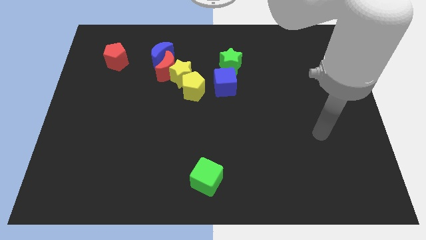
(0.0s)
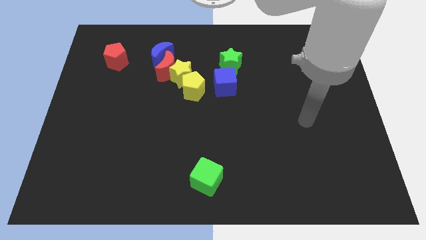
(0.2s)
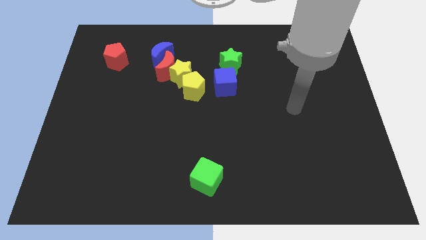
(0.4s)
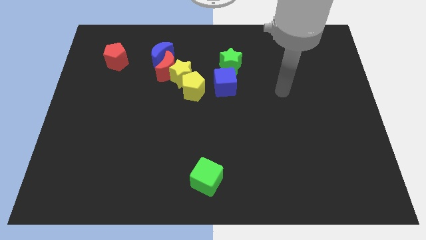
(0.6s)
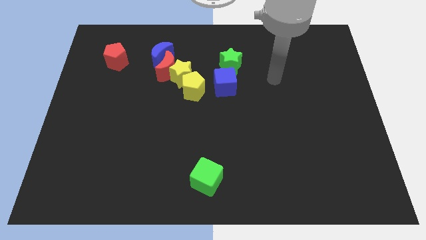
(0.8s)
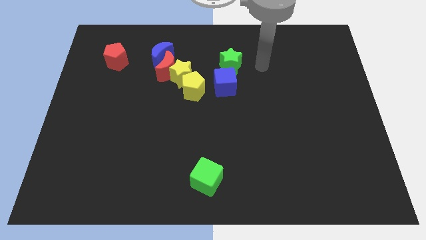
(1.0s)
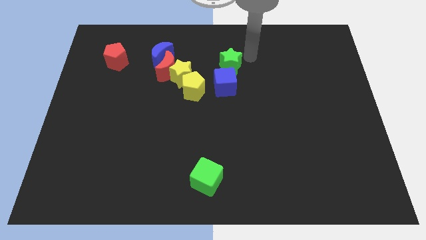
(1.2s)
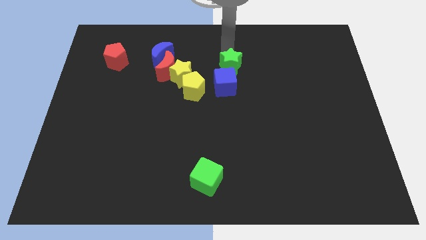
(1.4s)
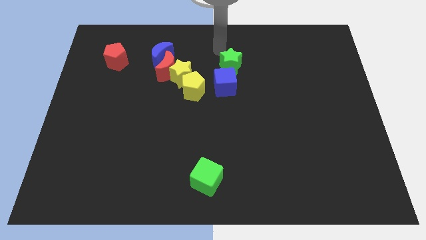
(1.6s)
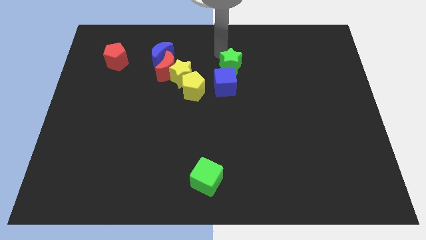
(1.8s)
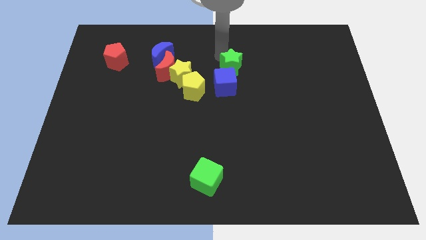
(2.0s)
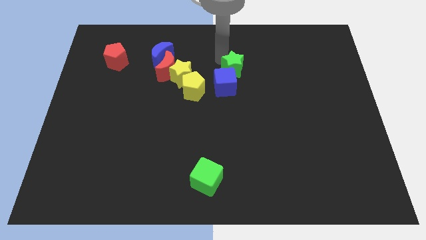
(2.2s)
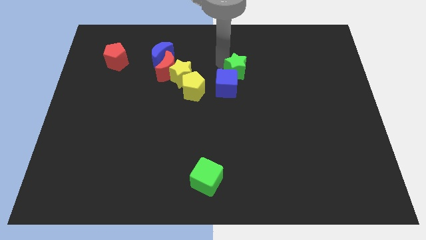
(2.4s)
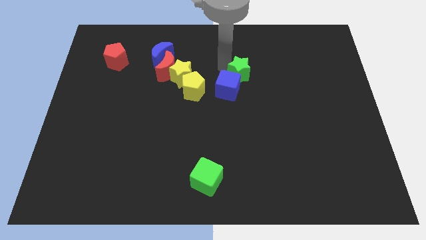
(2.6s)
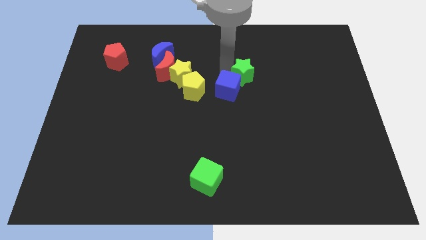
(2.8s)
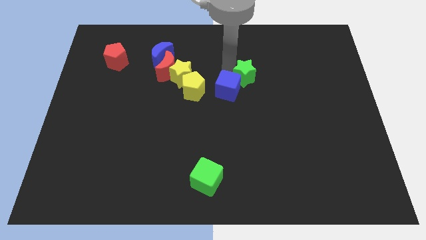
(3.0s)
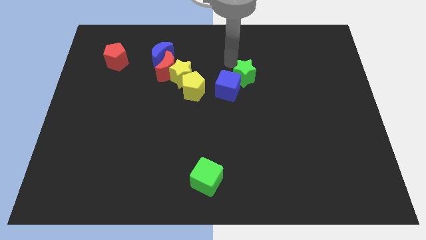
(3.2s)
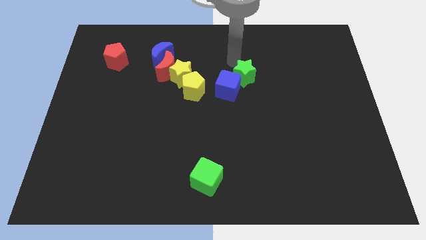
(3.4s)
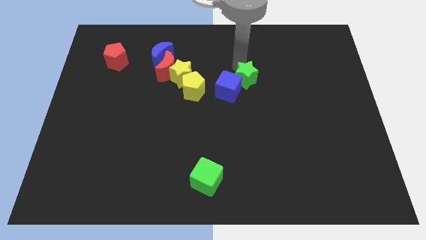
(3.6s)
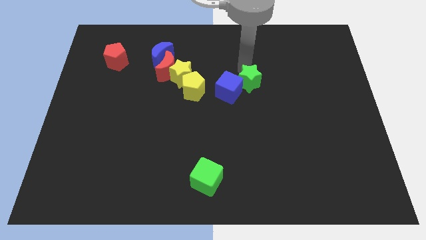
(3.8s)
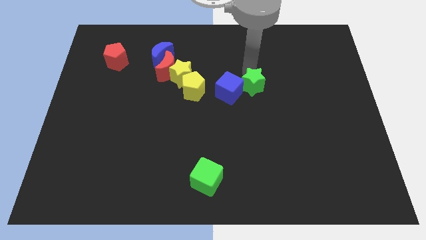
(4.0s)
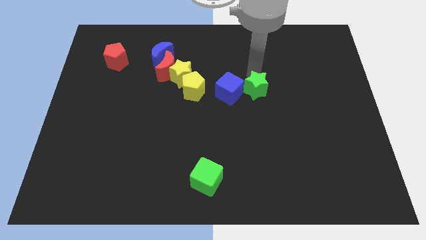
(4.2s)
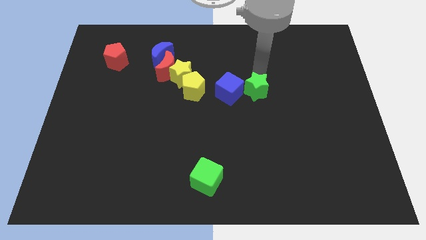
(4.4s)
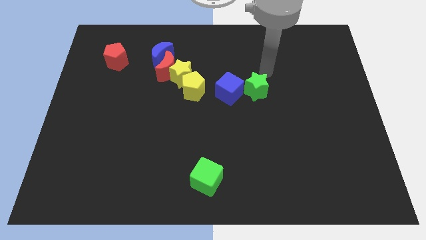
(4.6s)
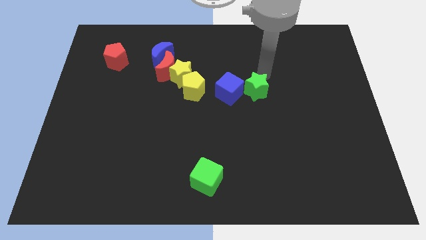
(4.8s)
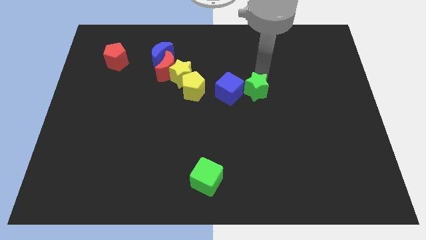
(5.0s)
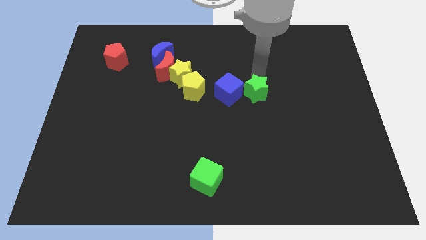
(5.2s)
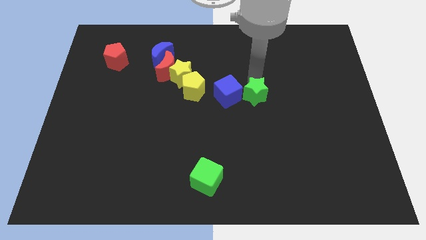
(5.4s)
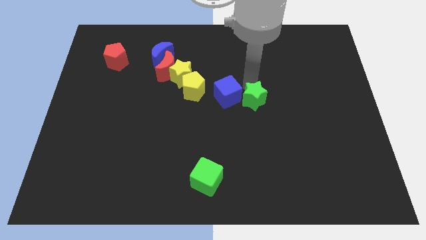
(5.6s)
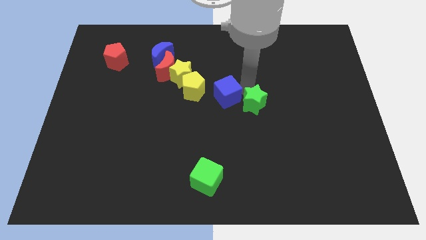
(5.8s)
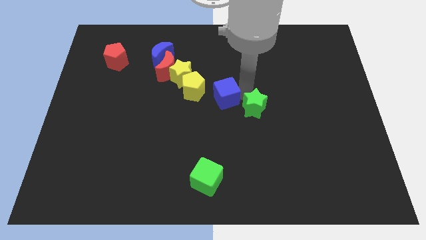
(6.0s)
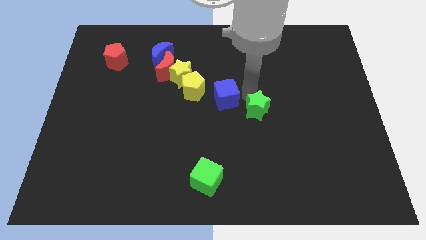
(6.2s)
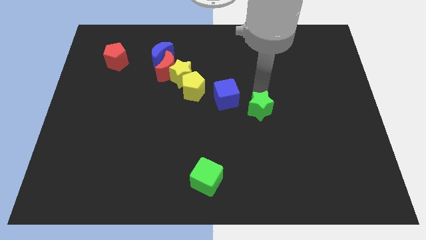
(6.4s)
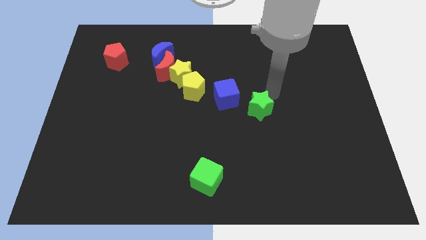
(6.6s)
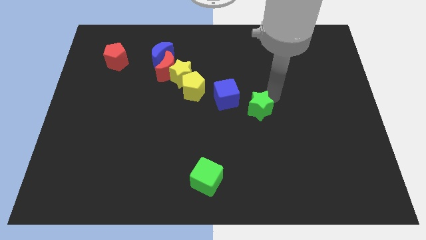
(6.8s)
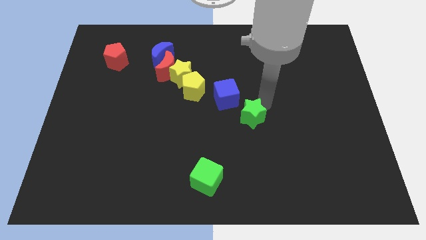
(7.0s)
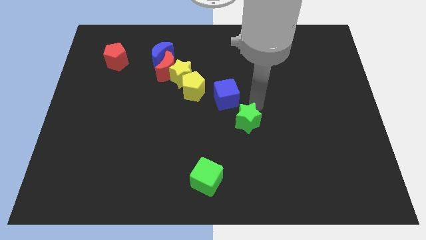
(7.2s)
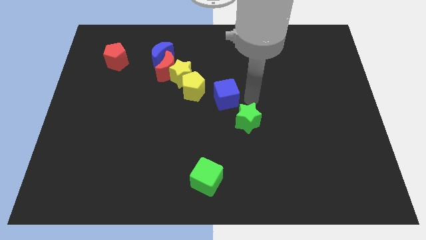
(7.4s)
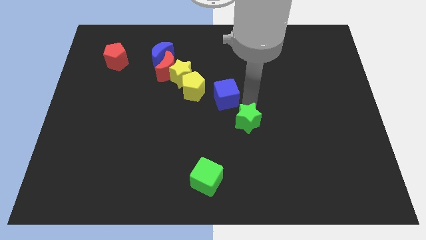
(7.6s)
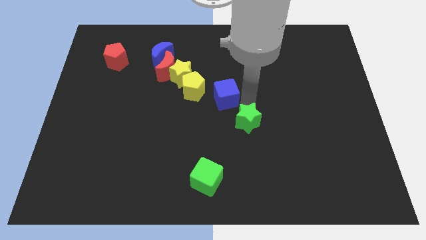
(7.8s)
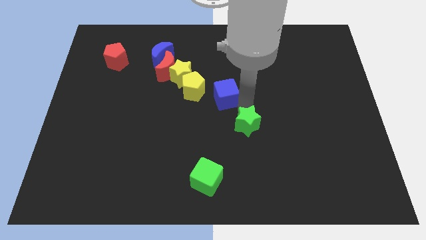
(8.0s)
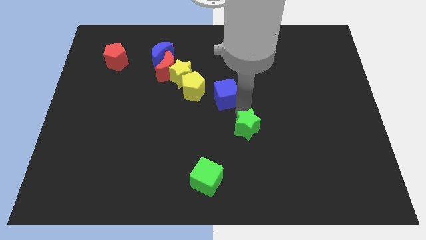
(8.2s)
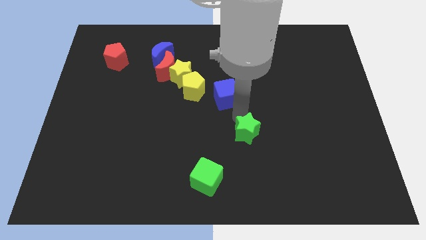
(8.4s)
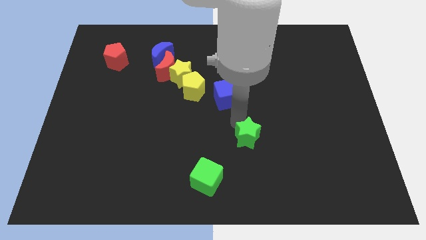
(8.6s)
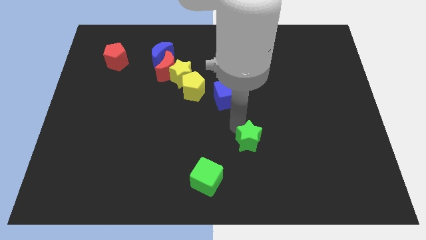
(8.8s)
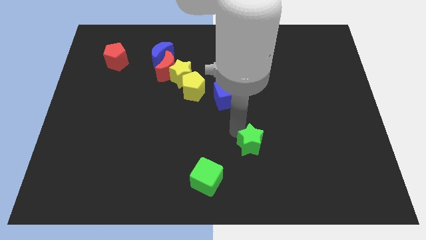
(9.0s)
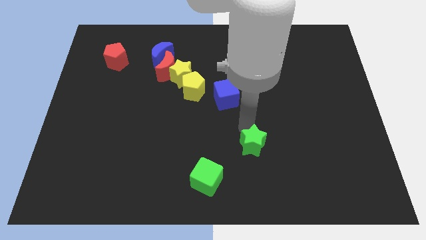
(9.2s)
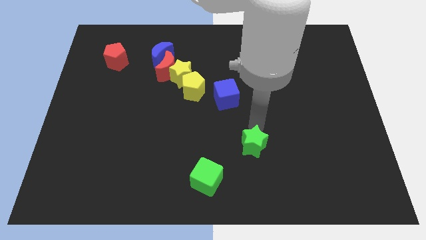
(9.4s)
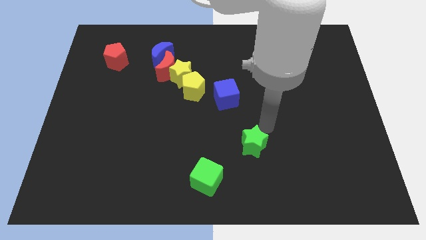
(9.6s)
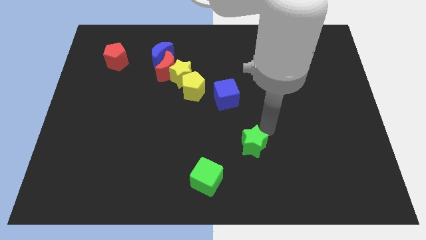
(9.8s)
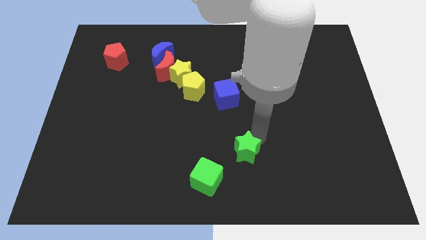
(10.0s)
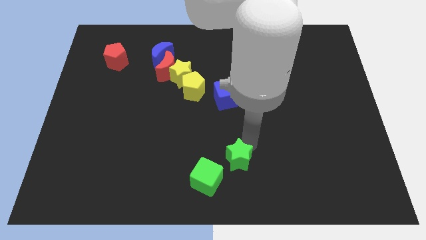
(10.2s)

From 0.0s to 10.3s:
put the green star to the bottom side

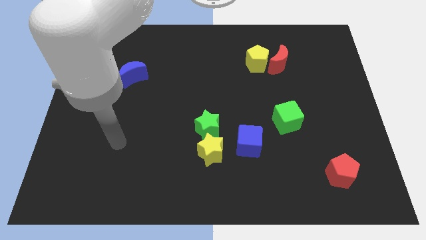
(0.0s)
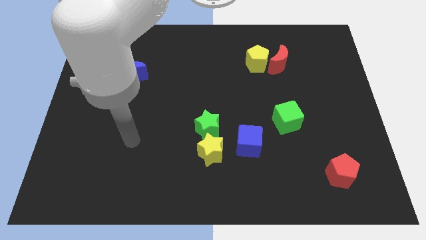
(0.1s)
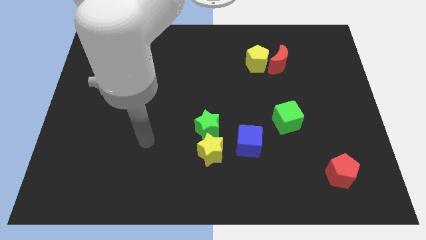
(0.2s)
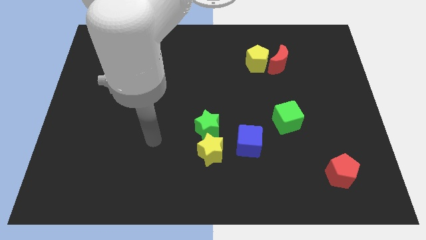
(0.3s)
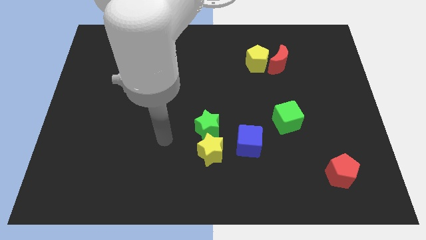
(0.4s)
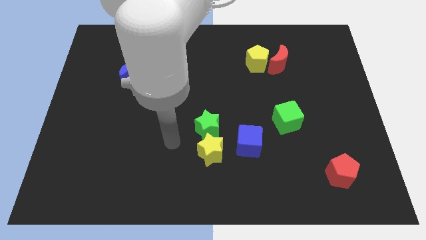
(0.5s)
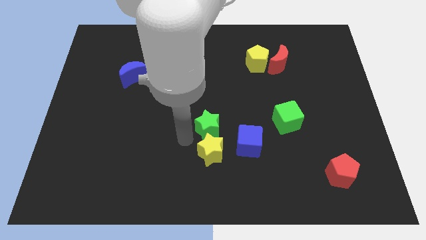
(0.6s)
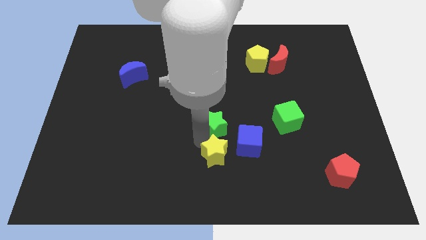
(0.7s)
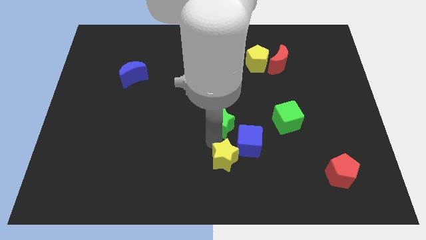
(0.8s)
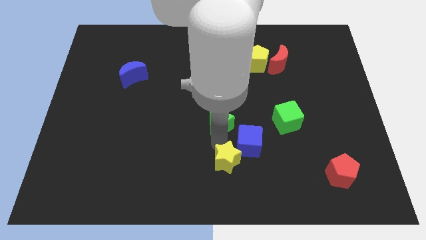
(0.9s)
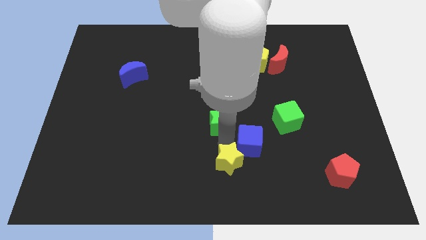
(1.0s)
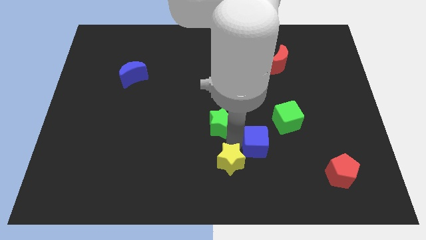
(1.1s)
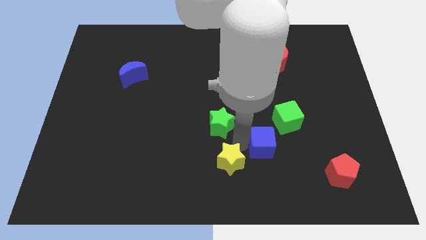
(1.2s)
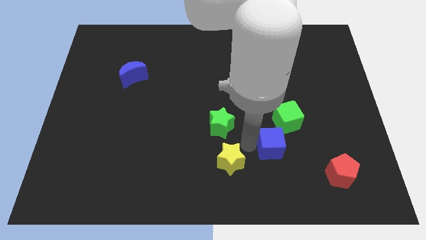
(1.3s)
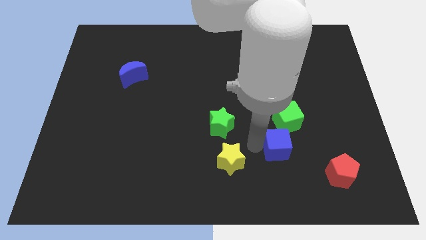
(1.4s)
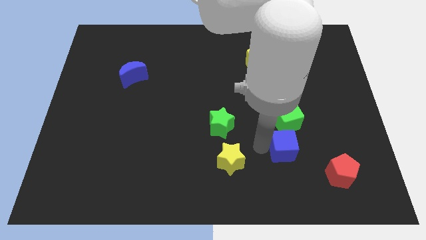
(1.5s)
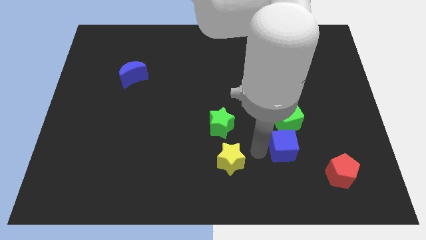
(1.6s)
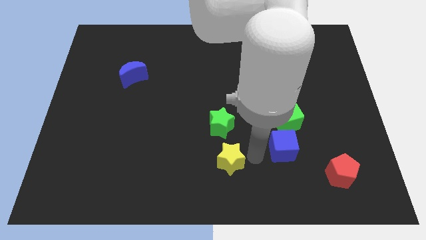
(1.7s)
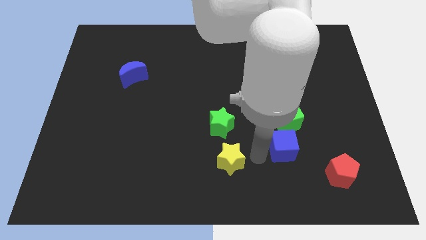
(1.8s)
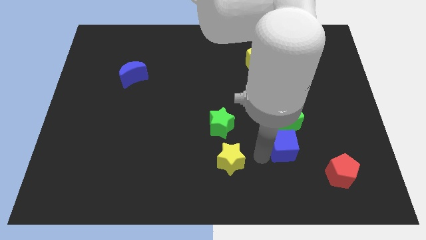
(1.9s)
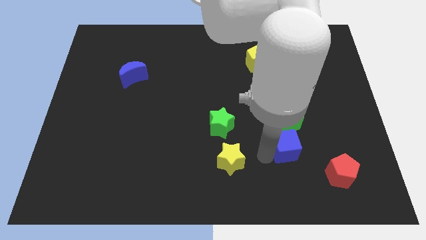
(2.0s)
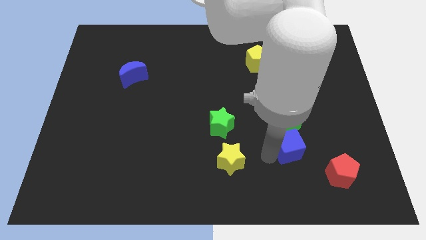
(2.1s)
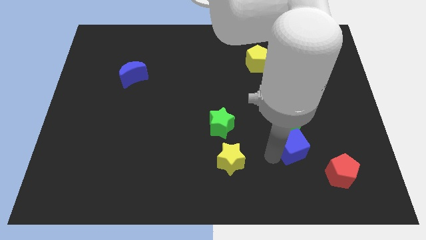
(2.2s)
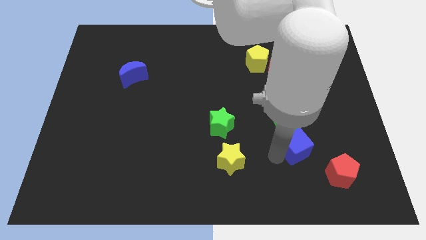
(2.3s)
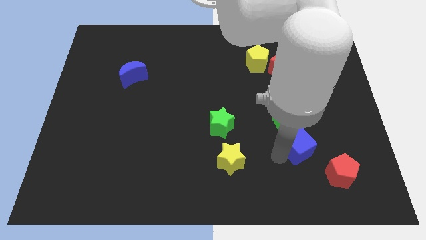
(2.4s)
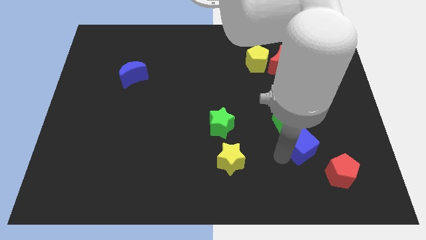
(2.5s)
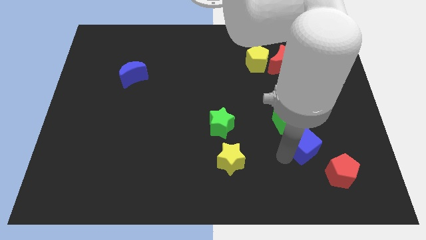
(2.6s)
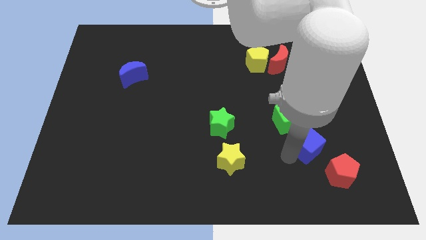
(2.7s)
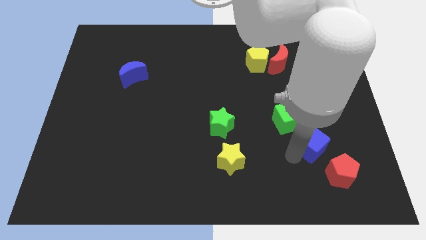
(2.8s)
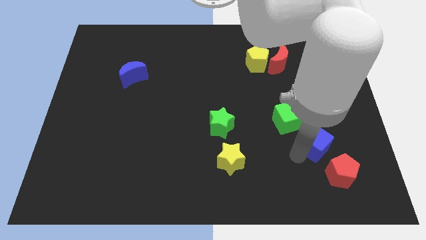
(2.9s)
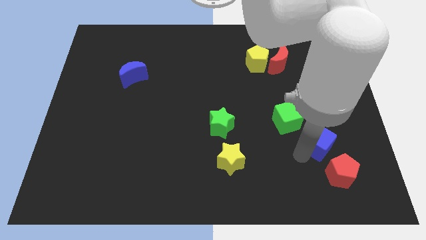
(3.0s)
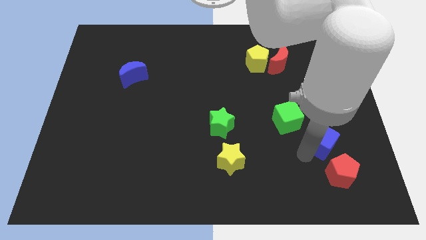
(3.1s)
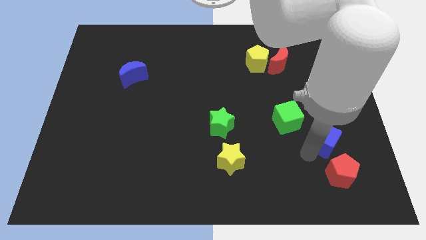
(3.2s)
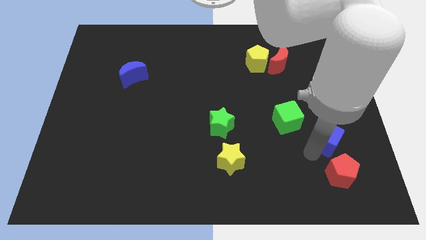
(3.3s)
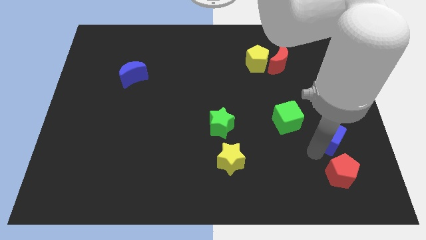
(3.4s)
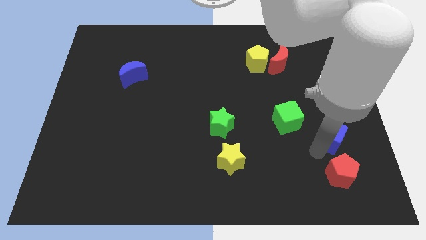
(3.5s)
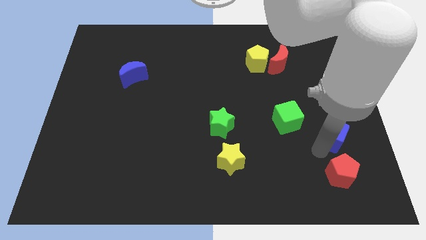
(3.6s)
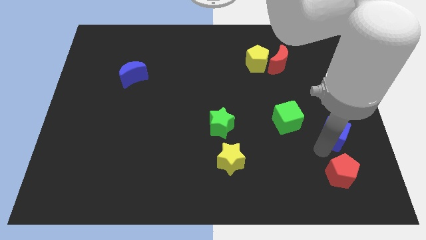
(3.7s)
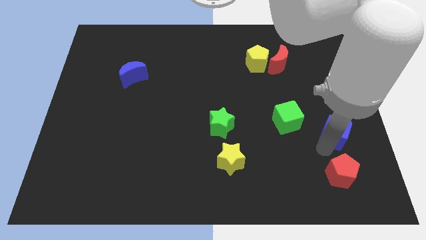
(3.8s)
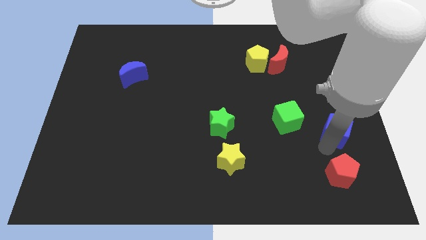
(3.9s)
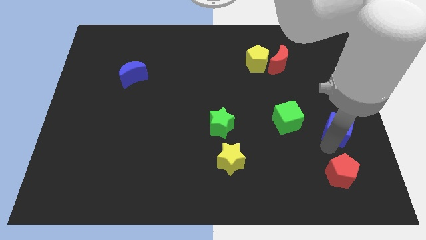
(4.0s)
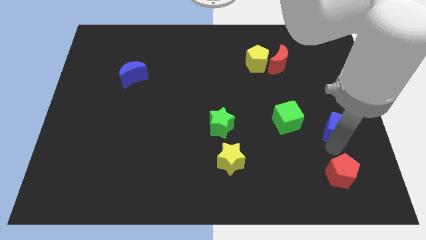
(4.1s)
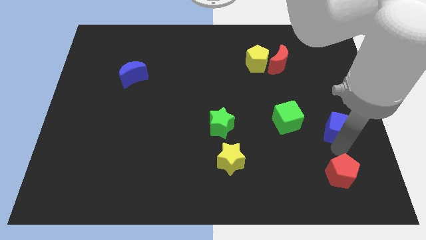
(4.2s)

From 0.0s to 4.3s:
put the blue cube to the right side
